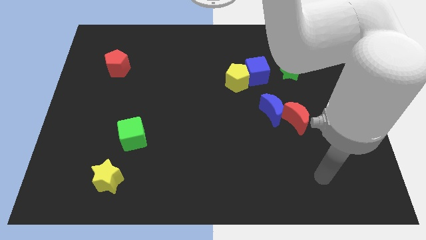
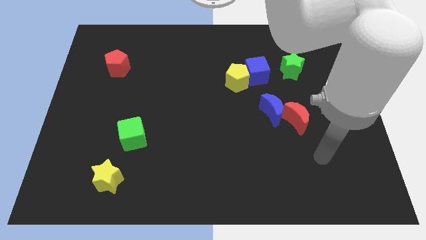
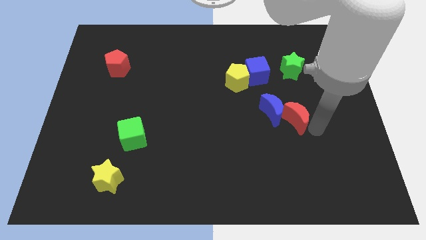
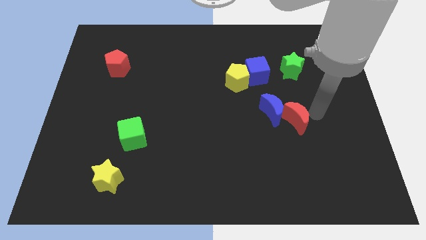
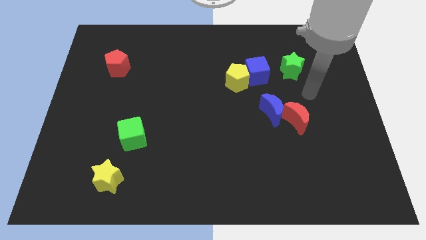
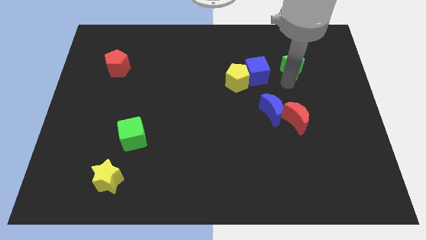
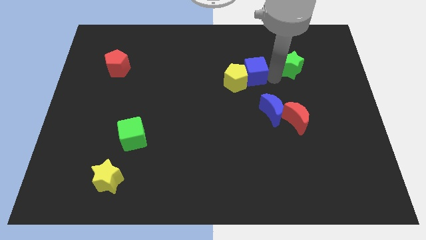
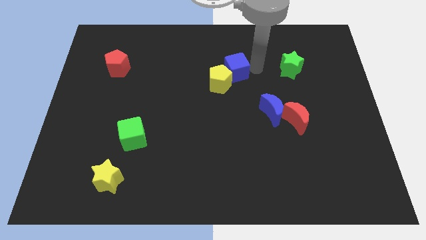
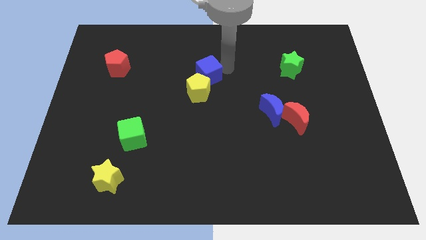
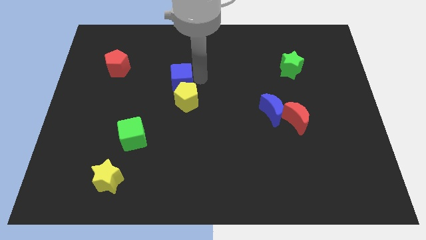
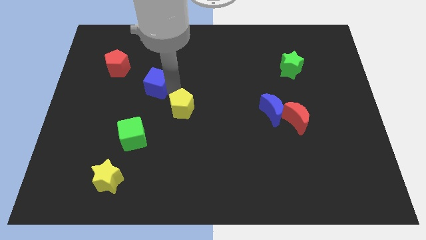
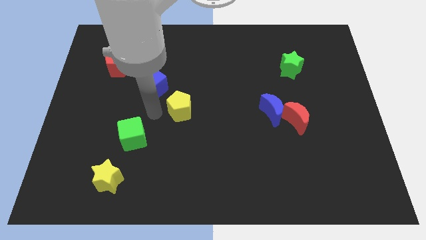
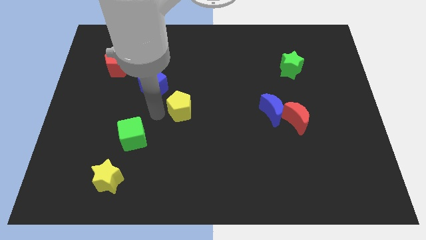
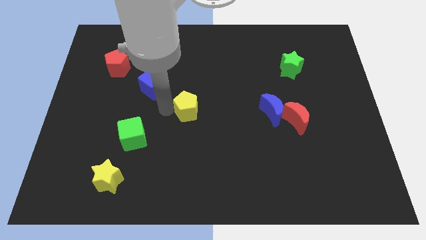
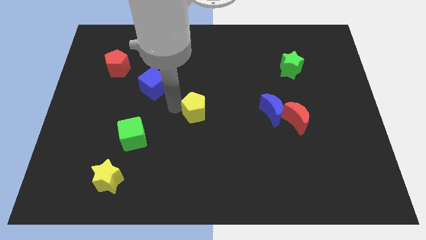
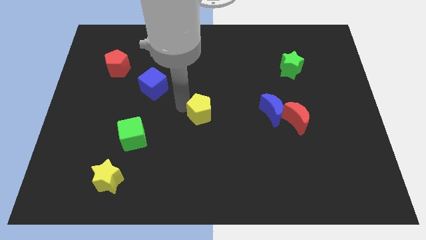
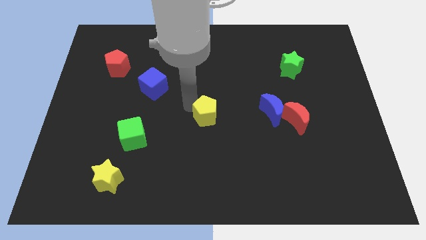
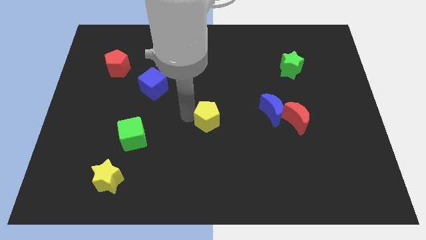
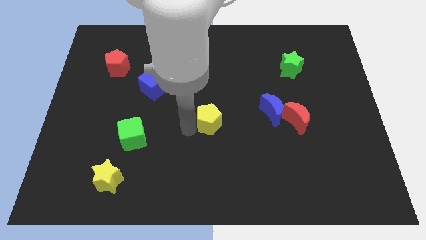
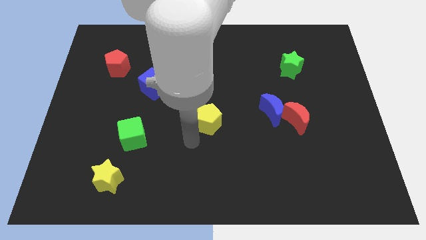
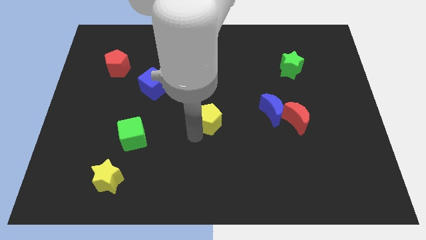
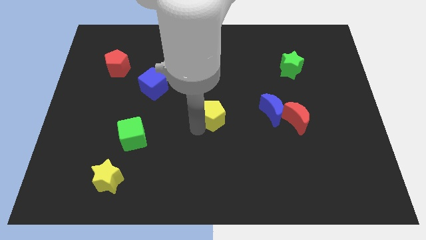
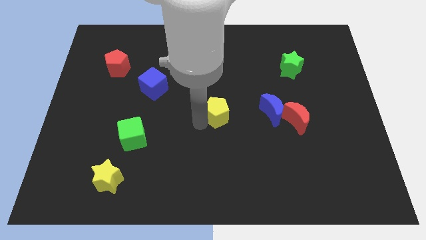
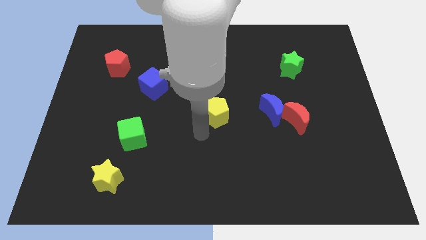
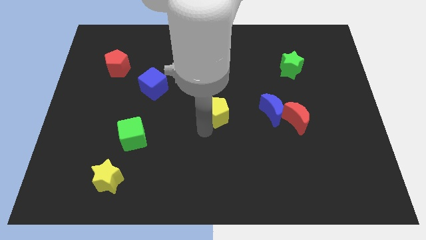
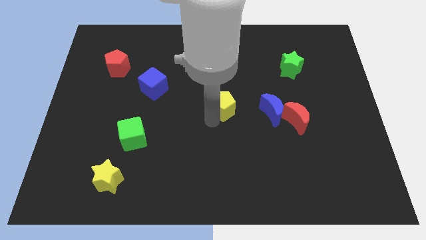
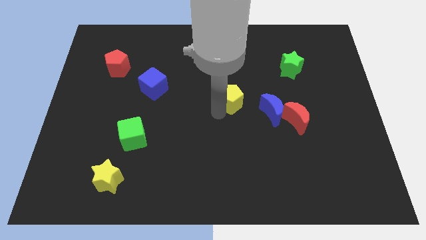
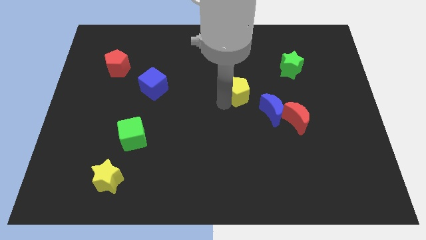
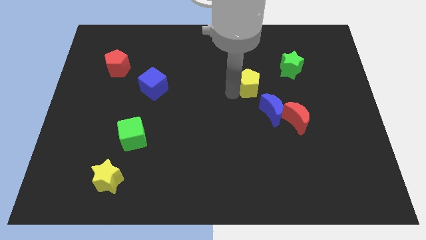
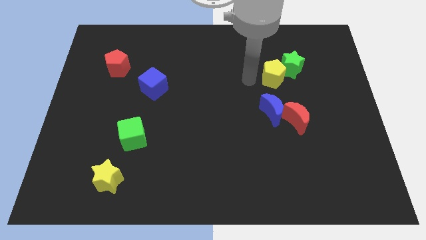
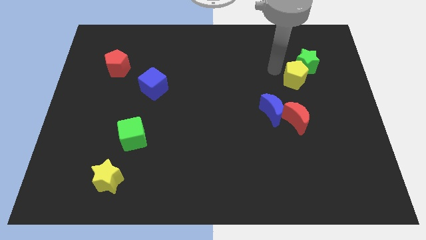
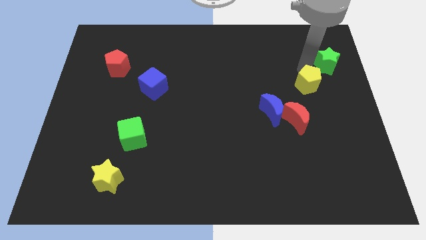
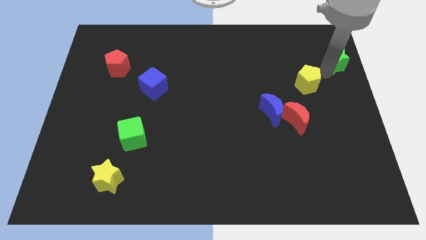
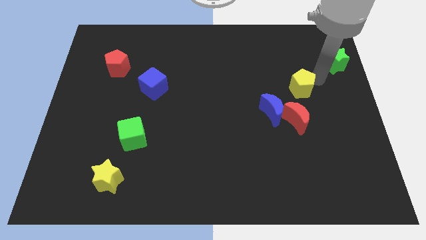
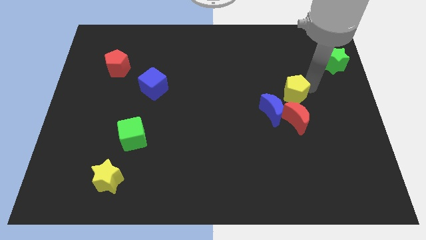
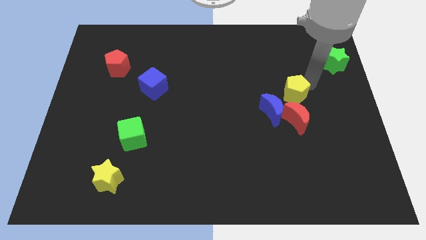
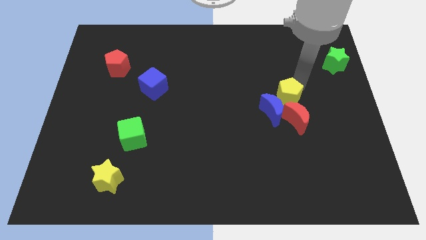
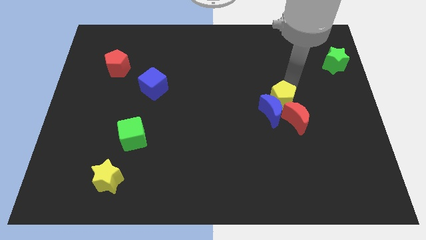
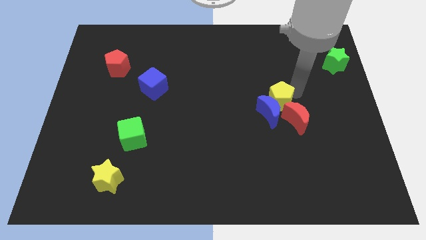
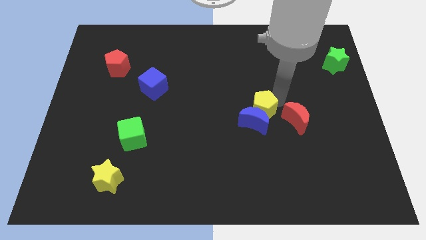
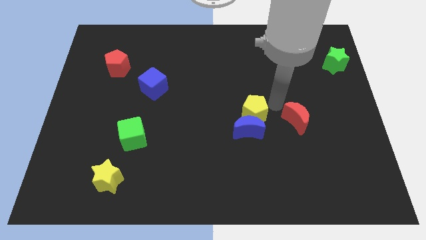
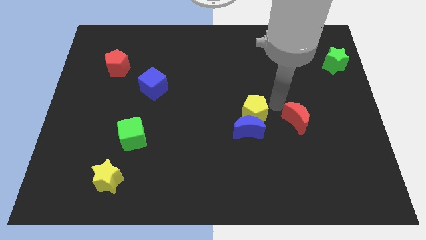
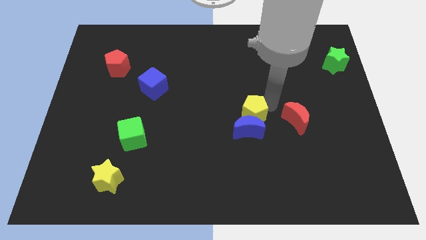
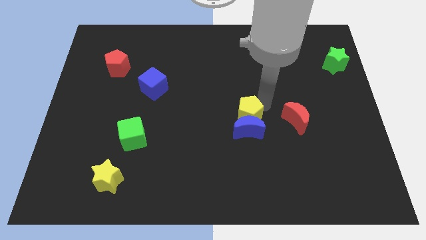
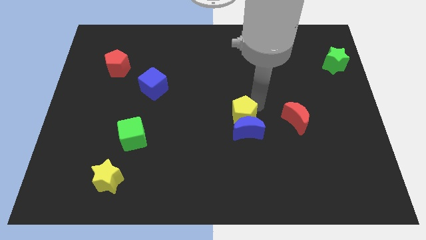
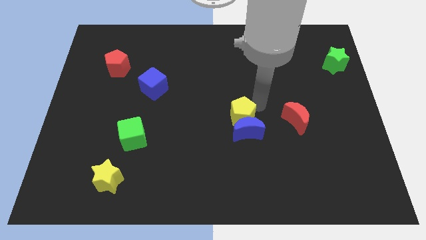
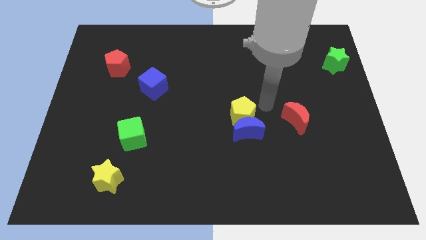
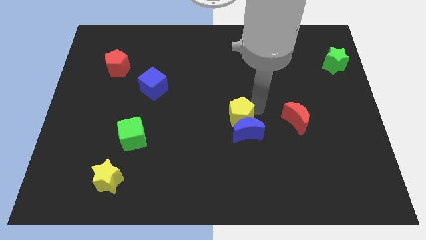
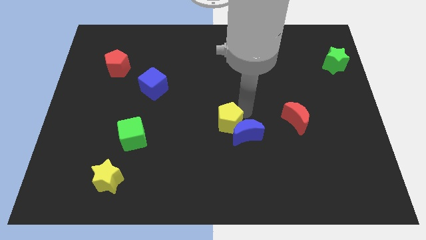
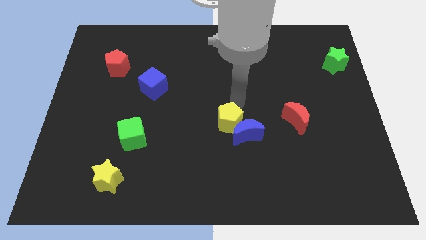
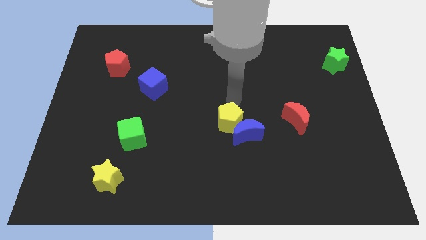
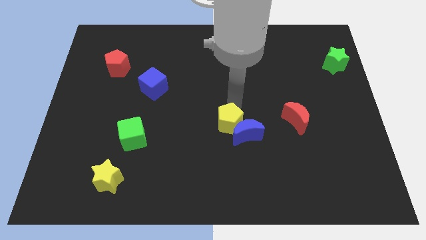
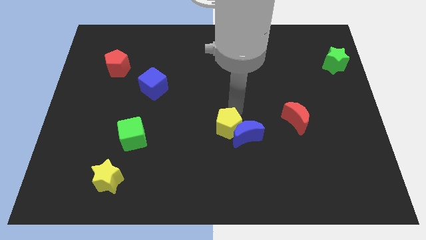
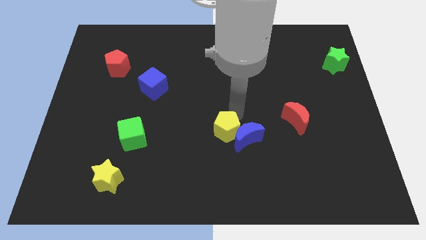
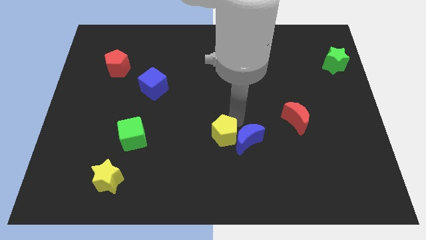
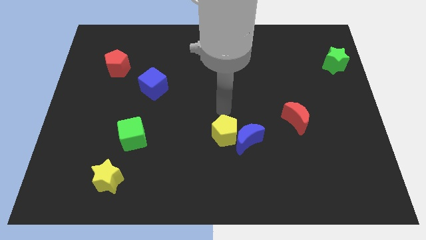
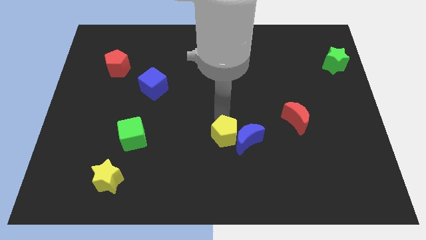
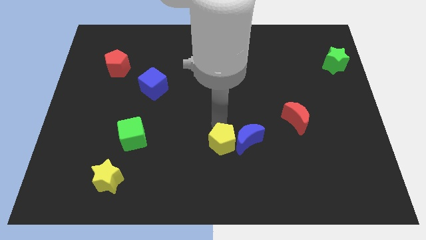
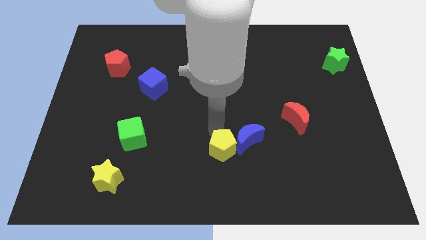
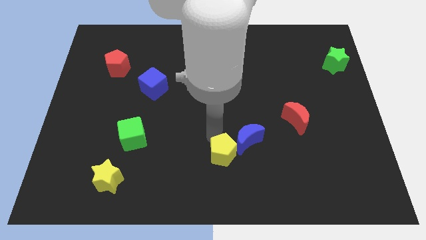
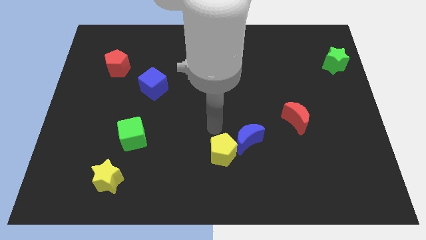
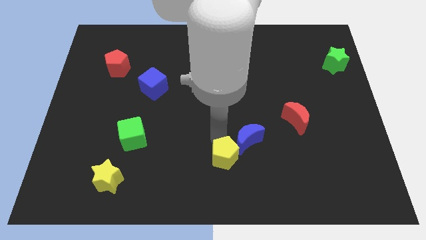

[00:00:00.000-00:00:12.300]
move the yellow pentagon to the bottom
